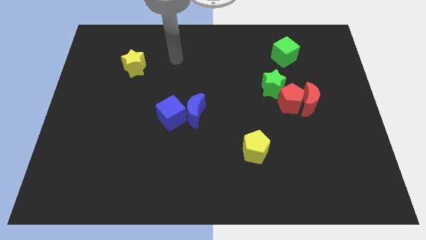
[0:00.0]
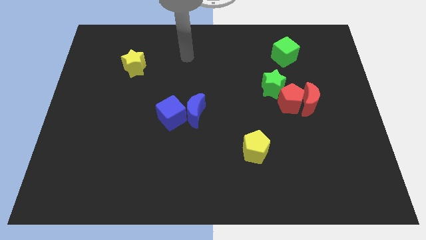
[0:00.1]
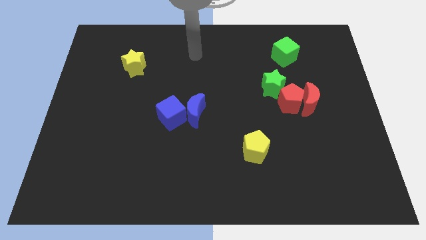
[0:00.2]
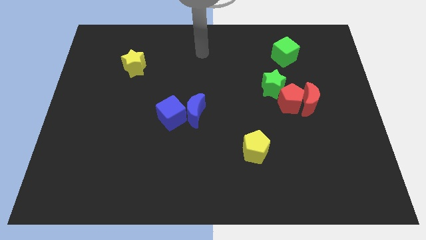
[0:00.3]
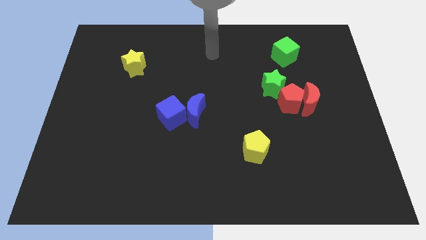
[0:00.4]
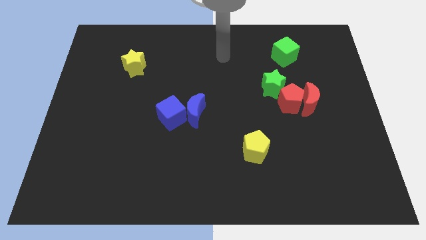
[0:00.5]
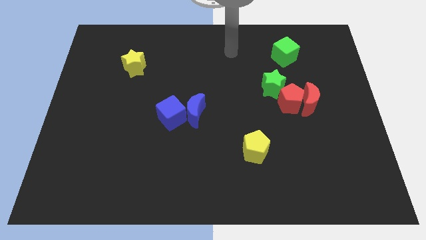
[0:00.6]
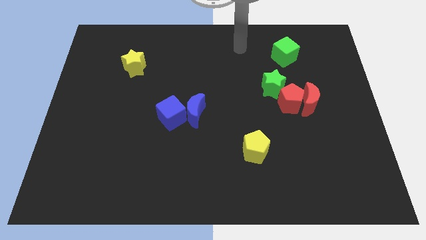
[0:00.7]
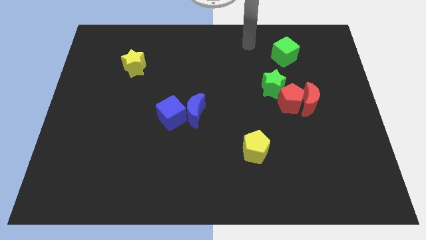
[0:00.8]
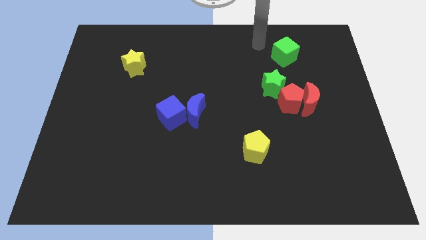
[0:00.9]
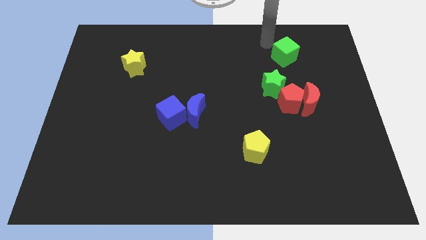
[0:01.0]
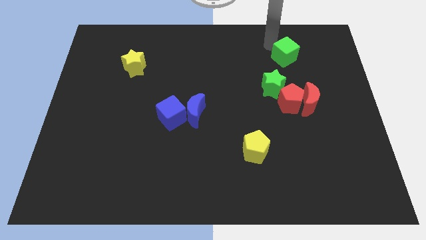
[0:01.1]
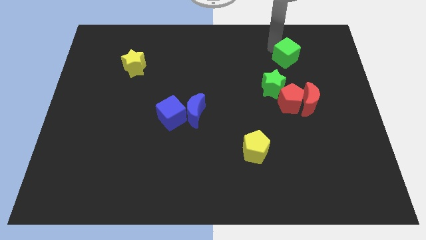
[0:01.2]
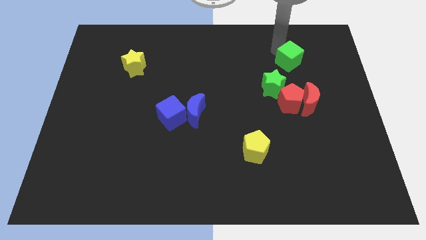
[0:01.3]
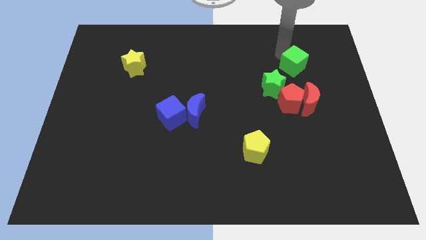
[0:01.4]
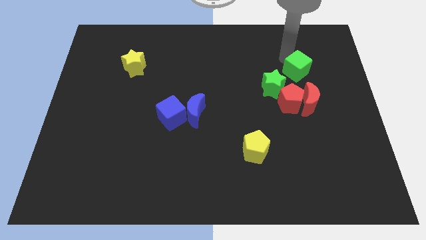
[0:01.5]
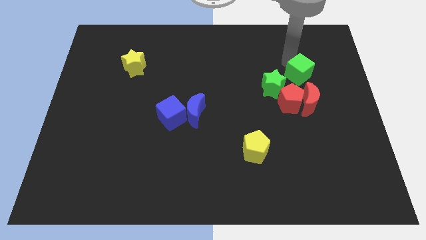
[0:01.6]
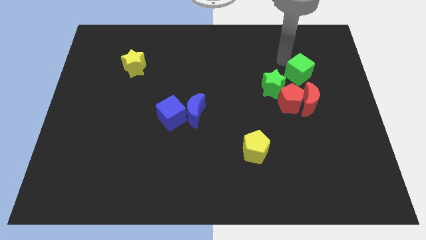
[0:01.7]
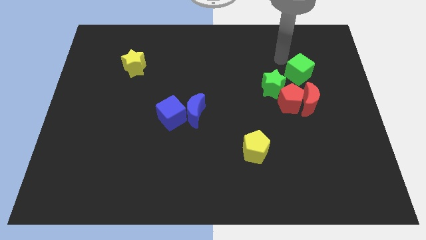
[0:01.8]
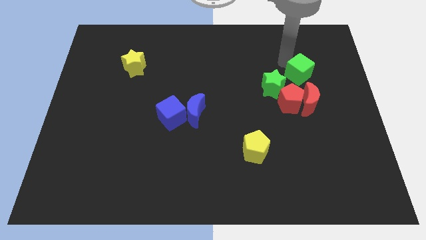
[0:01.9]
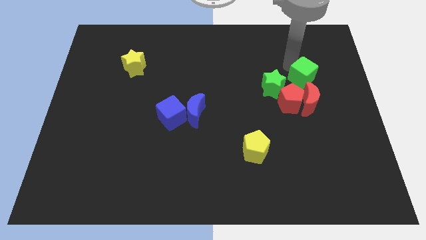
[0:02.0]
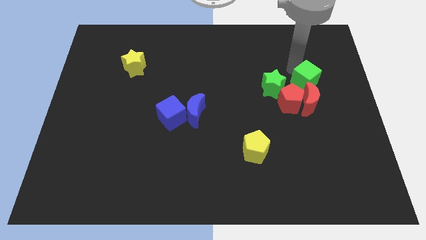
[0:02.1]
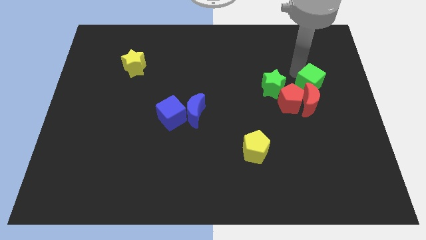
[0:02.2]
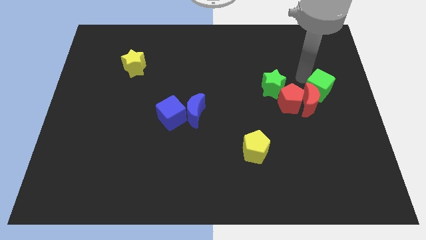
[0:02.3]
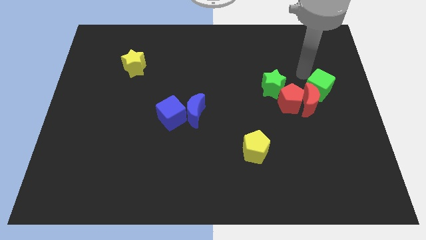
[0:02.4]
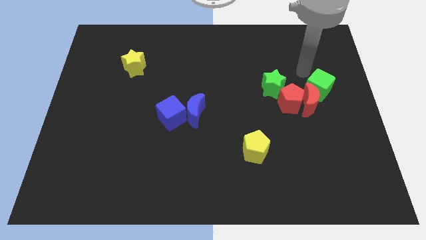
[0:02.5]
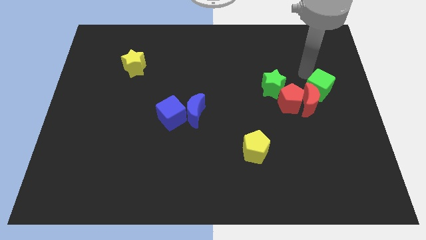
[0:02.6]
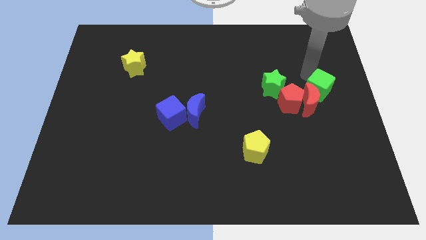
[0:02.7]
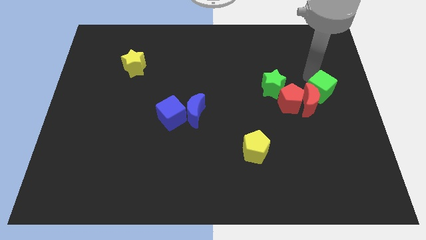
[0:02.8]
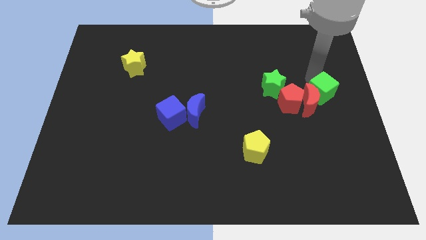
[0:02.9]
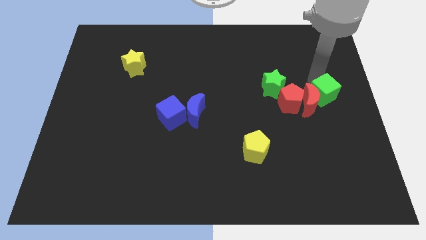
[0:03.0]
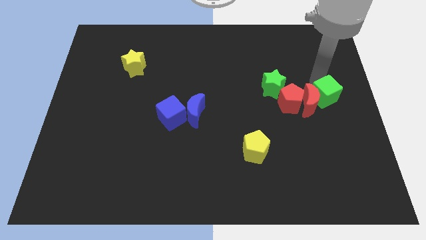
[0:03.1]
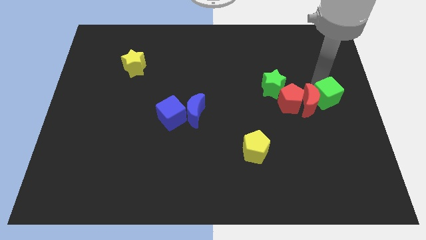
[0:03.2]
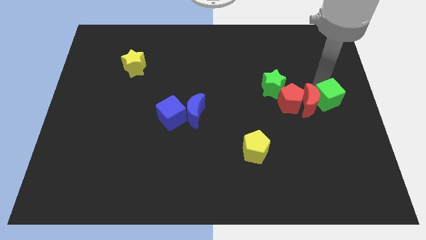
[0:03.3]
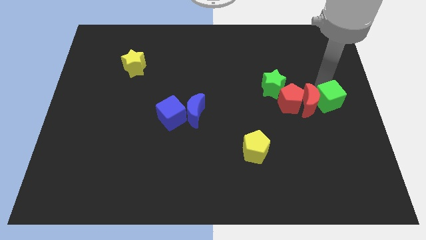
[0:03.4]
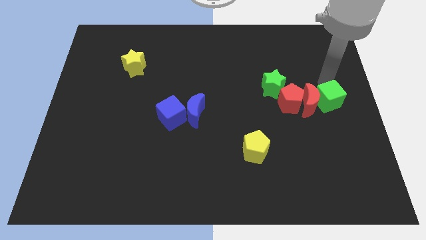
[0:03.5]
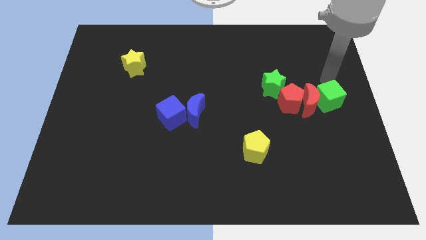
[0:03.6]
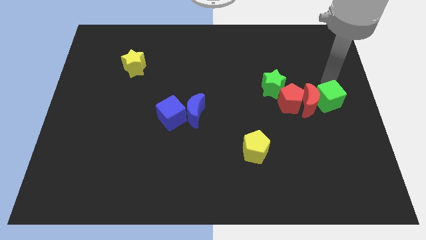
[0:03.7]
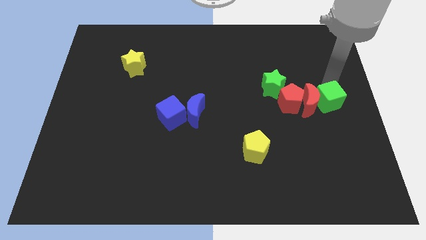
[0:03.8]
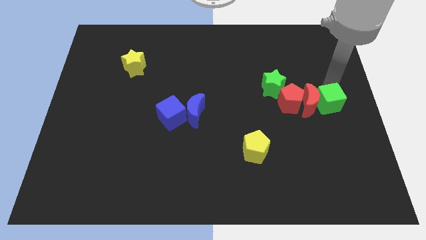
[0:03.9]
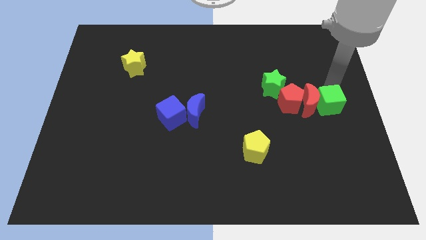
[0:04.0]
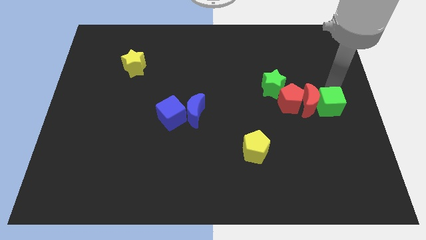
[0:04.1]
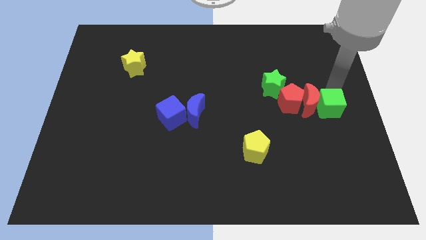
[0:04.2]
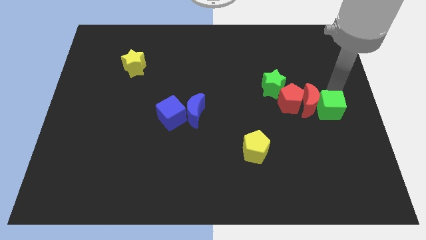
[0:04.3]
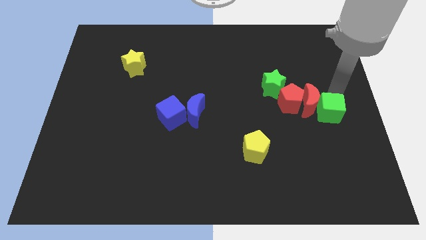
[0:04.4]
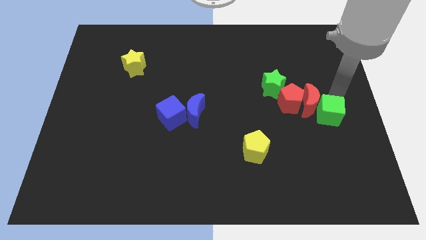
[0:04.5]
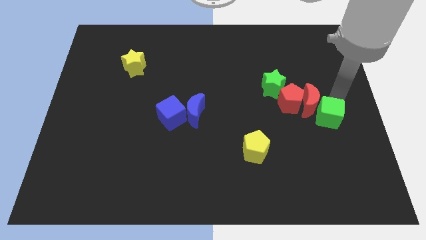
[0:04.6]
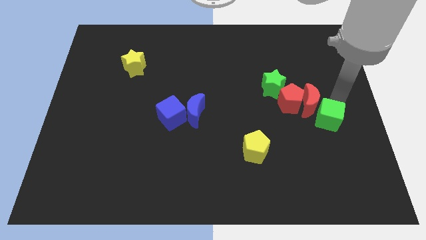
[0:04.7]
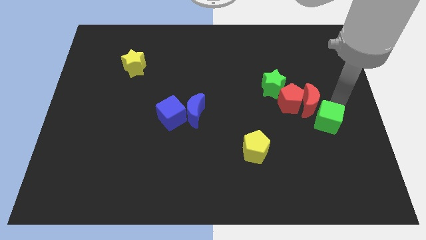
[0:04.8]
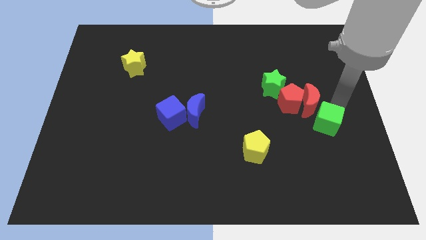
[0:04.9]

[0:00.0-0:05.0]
move the green cube downwards

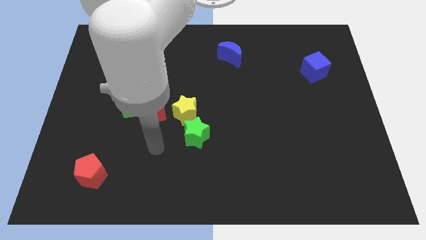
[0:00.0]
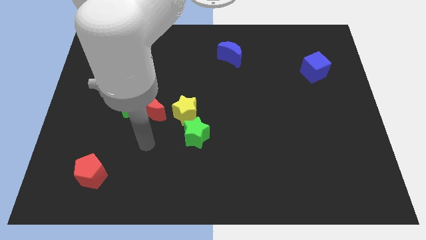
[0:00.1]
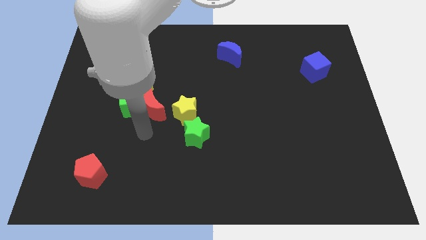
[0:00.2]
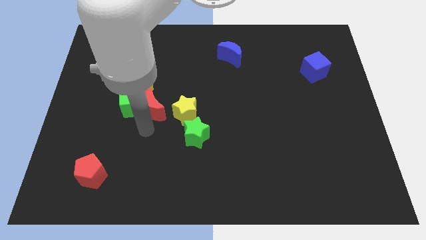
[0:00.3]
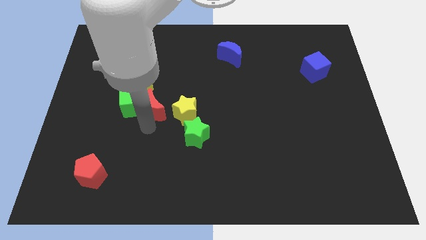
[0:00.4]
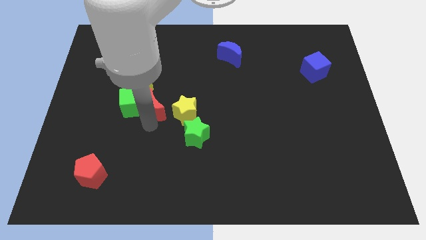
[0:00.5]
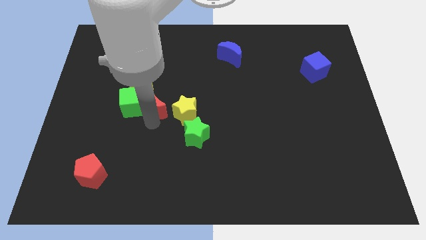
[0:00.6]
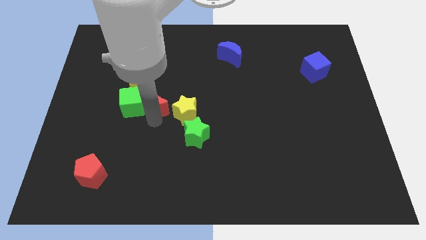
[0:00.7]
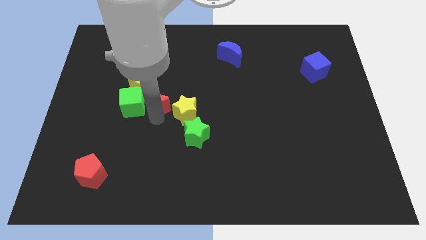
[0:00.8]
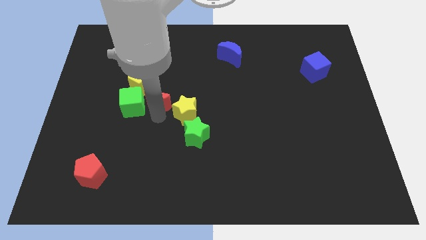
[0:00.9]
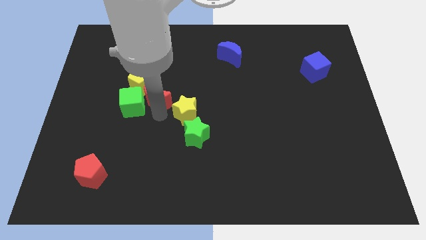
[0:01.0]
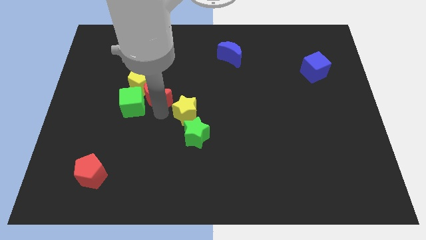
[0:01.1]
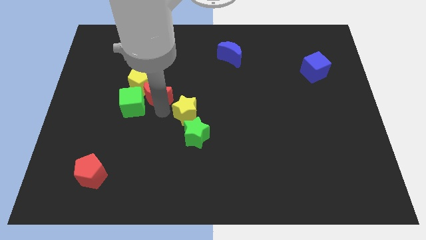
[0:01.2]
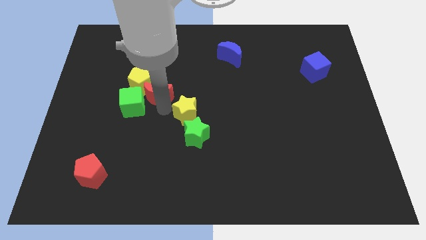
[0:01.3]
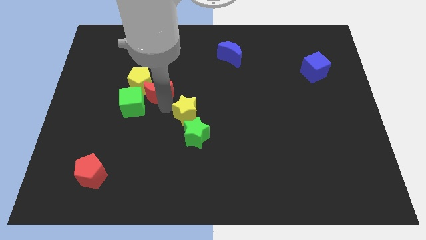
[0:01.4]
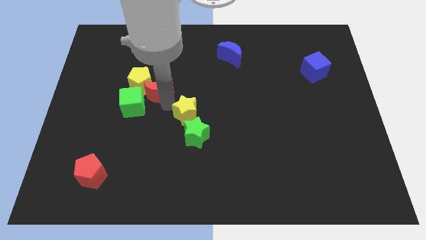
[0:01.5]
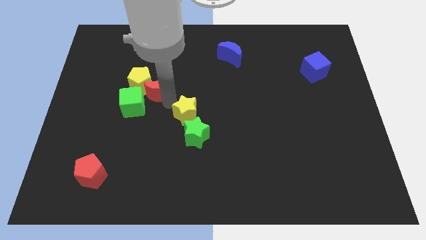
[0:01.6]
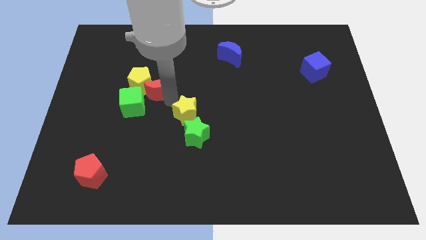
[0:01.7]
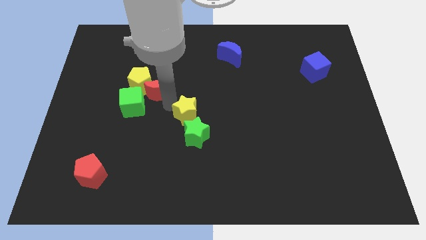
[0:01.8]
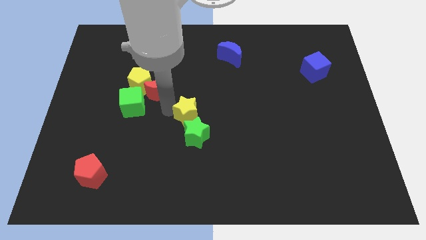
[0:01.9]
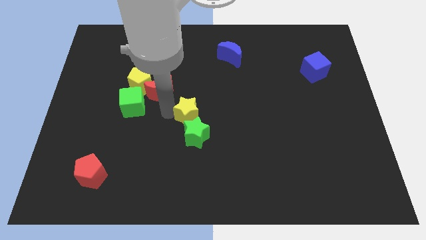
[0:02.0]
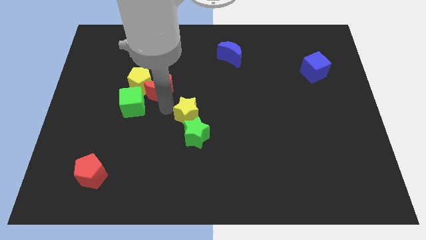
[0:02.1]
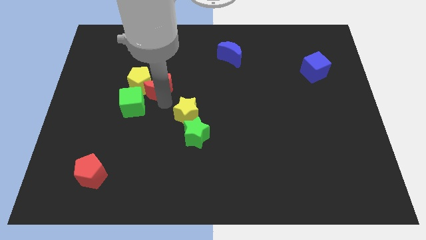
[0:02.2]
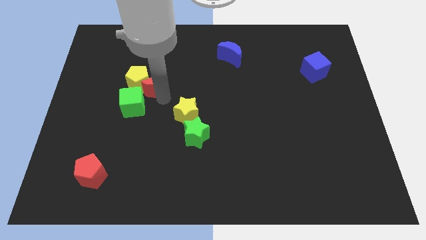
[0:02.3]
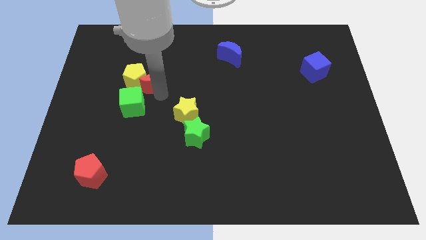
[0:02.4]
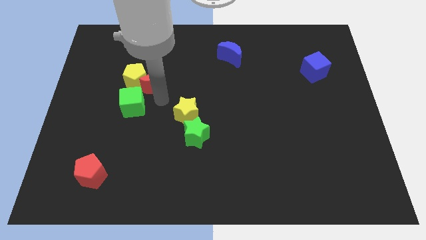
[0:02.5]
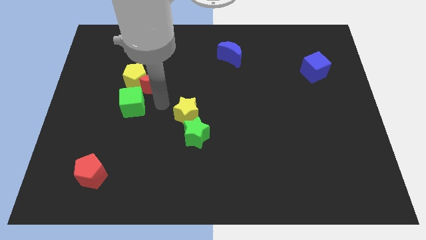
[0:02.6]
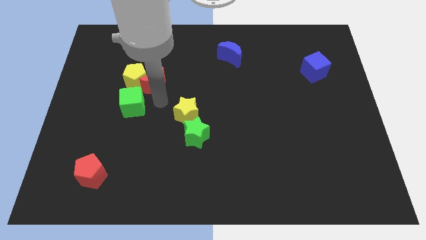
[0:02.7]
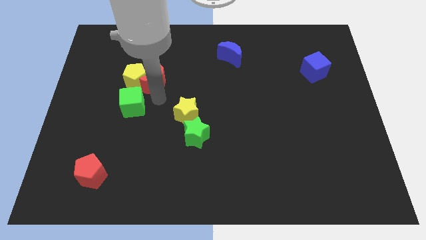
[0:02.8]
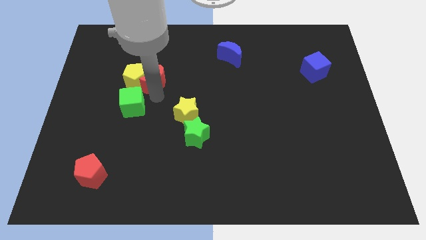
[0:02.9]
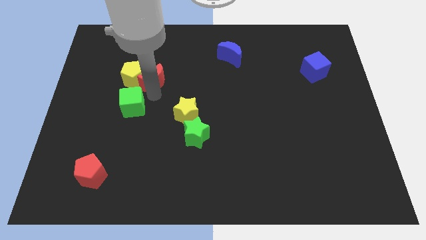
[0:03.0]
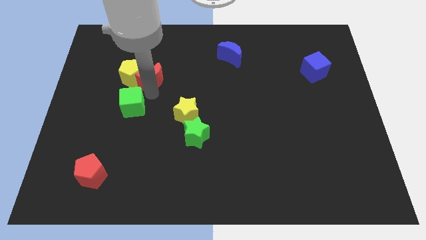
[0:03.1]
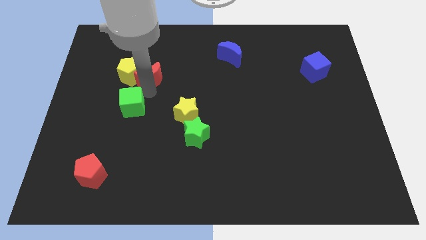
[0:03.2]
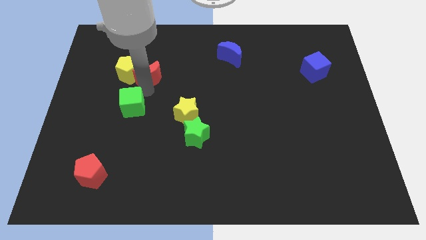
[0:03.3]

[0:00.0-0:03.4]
slightly move the red moon diagonally upwards and to the left
